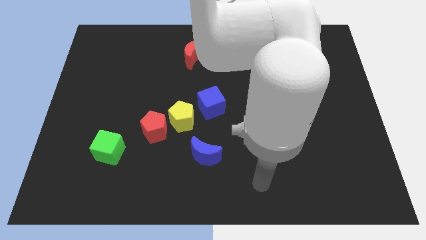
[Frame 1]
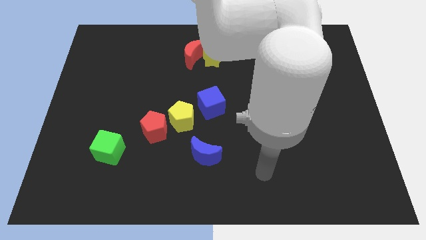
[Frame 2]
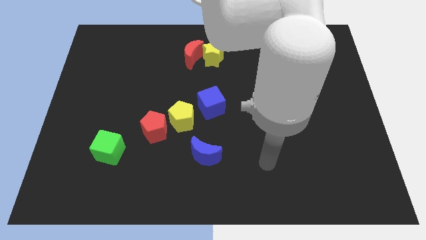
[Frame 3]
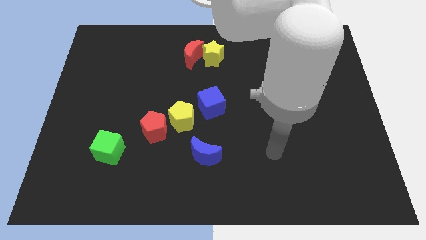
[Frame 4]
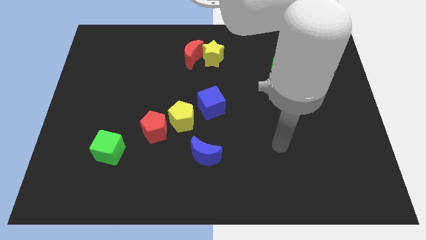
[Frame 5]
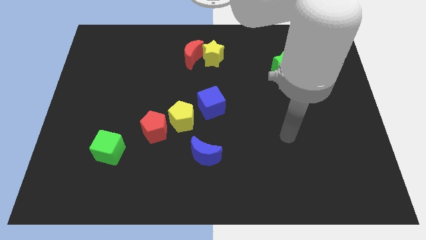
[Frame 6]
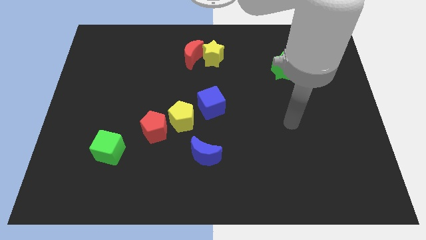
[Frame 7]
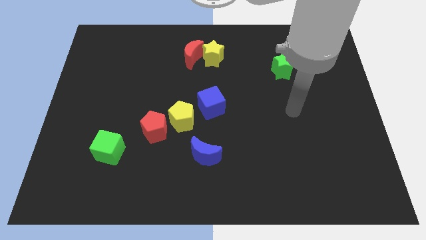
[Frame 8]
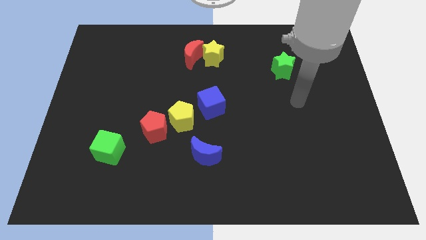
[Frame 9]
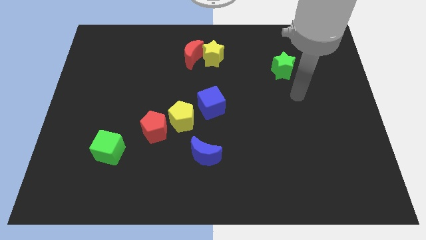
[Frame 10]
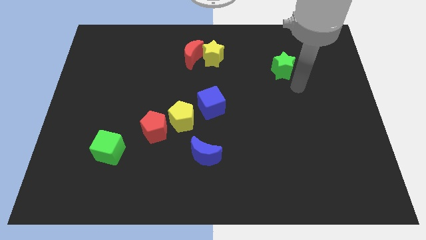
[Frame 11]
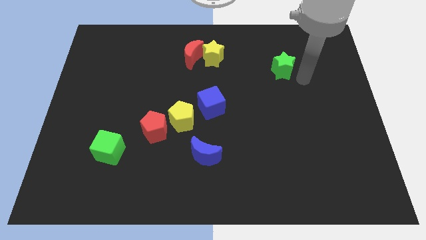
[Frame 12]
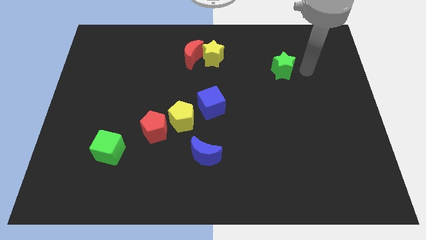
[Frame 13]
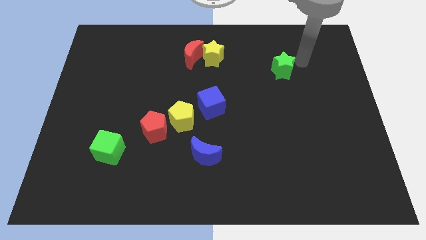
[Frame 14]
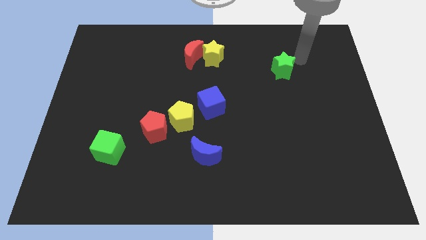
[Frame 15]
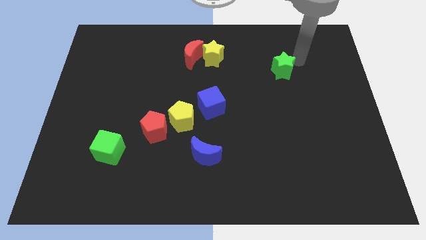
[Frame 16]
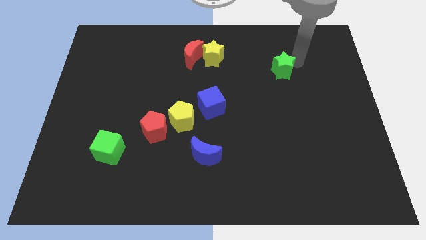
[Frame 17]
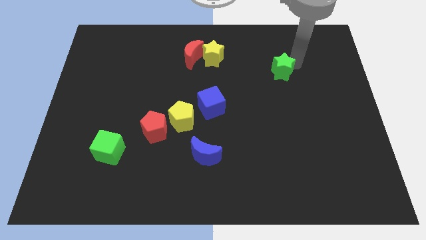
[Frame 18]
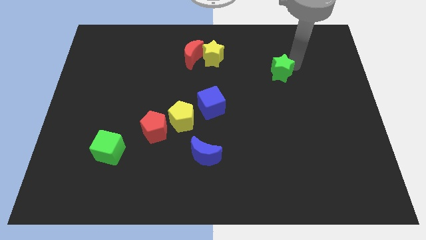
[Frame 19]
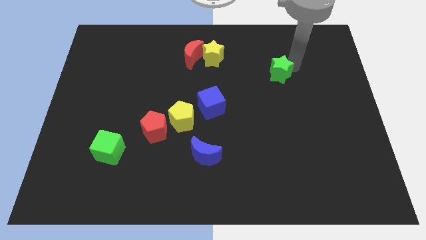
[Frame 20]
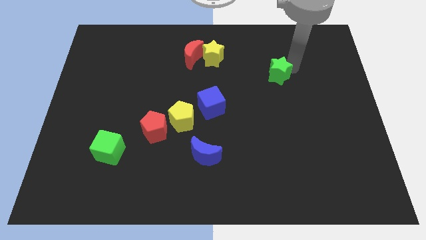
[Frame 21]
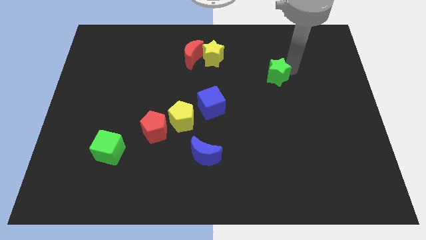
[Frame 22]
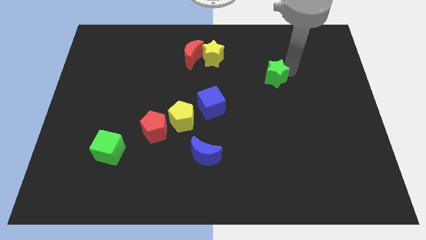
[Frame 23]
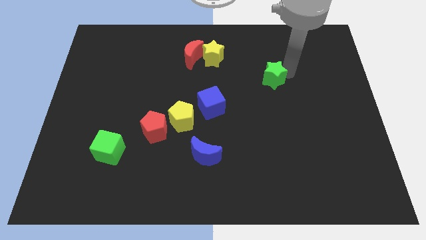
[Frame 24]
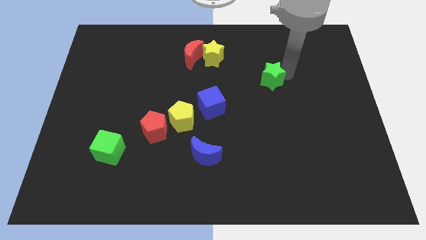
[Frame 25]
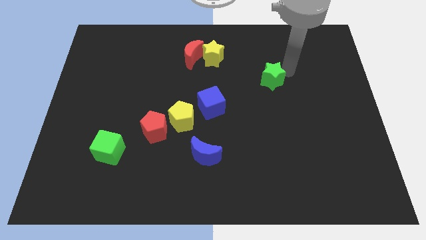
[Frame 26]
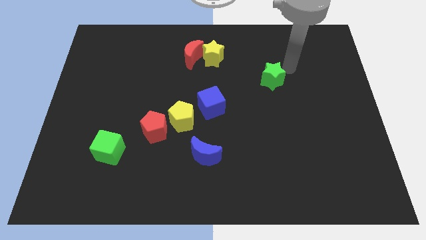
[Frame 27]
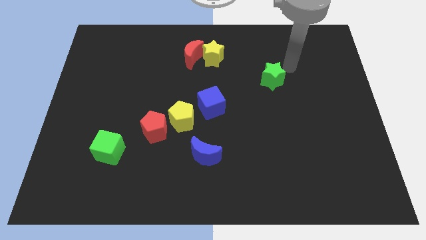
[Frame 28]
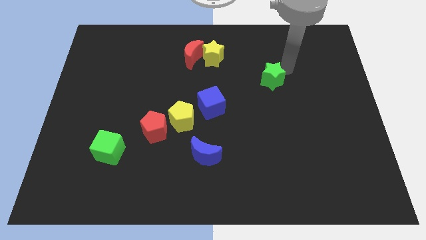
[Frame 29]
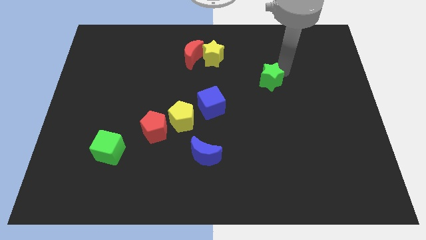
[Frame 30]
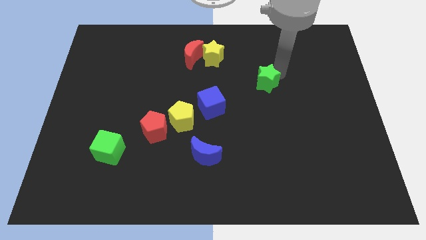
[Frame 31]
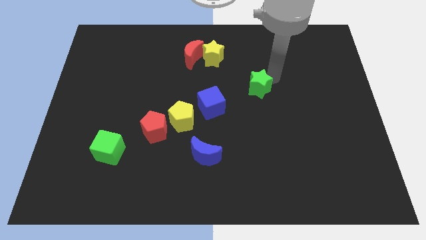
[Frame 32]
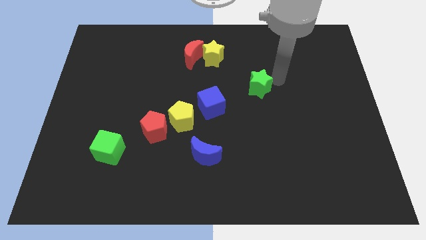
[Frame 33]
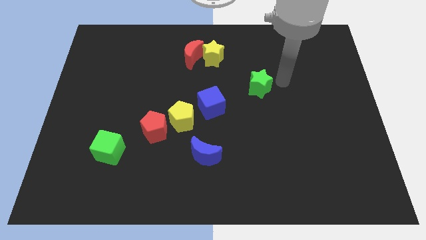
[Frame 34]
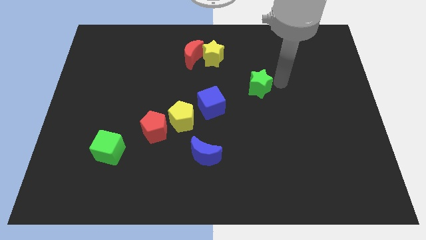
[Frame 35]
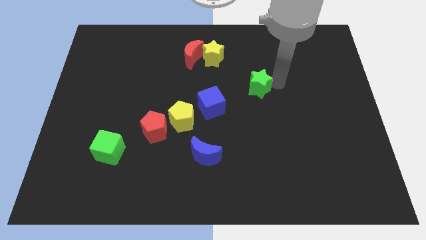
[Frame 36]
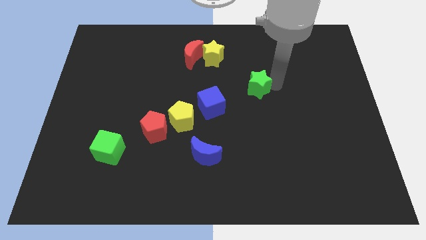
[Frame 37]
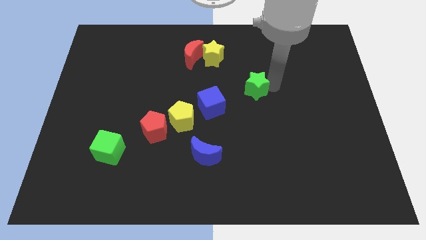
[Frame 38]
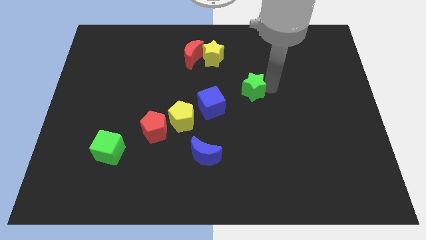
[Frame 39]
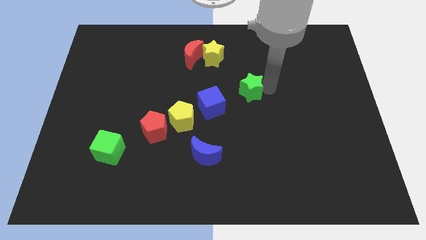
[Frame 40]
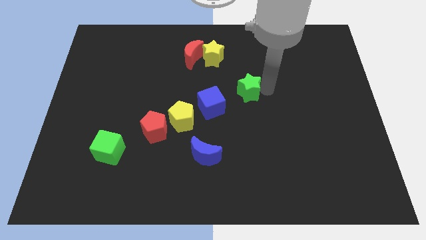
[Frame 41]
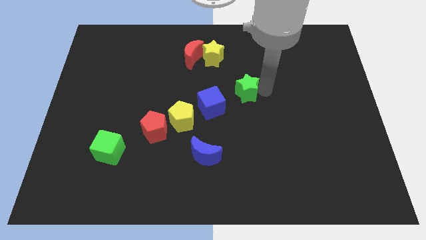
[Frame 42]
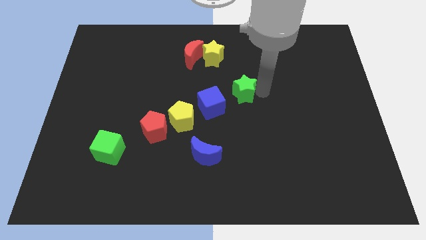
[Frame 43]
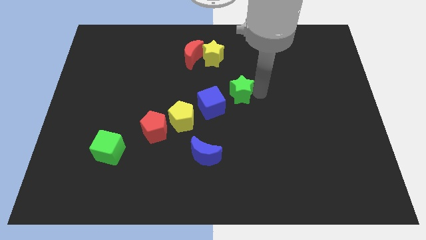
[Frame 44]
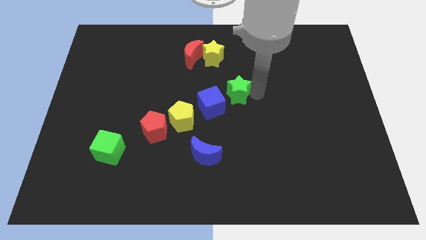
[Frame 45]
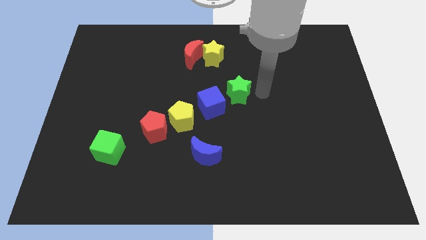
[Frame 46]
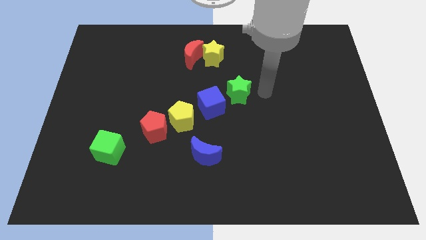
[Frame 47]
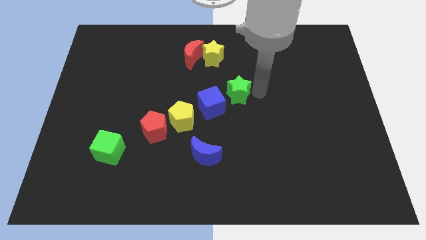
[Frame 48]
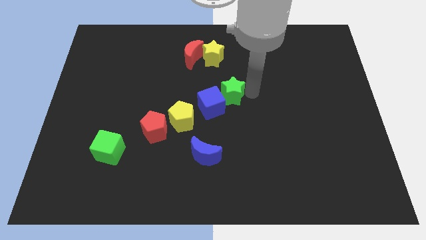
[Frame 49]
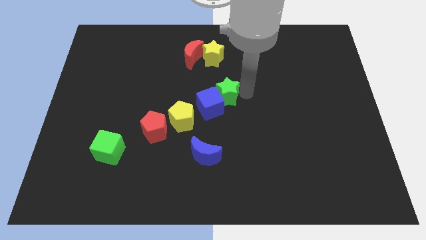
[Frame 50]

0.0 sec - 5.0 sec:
push the green star diagonally up and to the right of the yellow pentagon

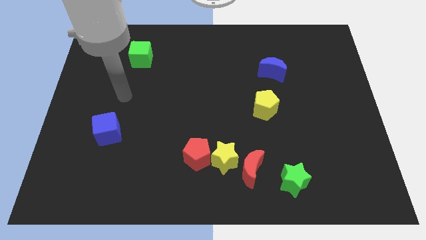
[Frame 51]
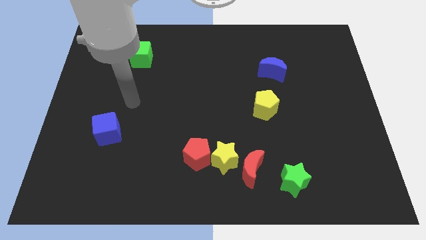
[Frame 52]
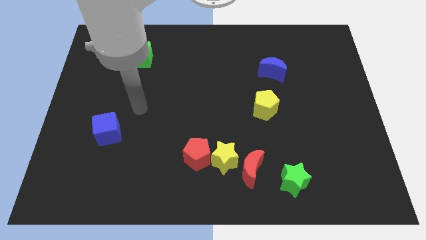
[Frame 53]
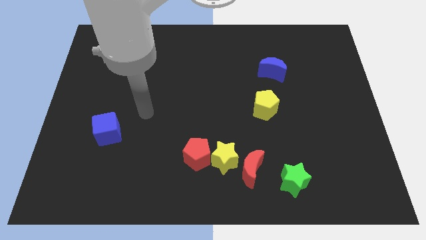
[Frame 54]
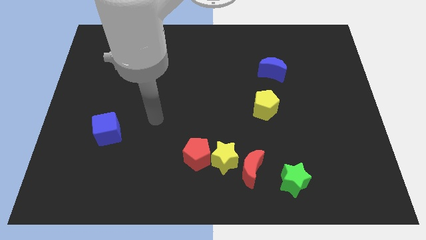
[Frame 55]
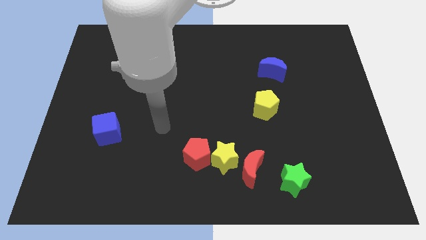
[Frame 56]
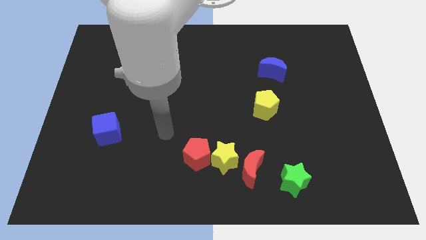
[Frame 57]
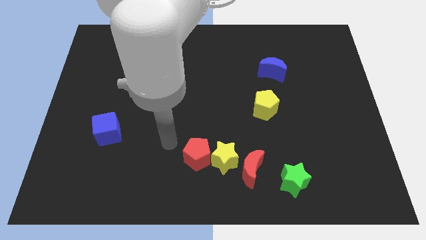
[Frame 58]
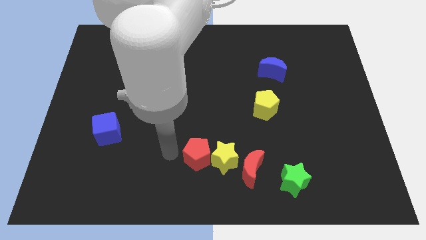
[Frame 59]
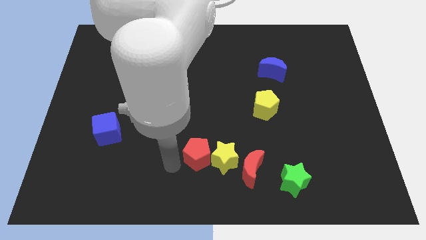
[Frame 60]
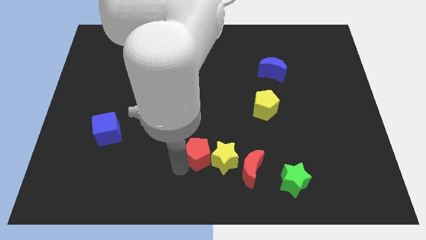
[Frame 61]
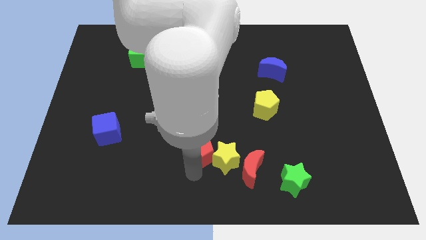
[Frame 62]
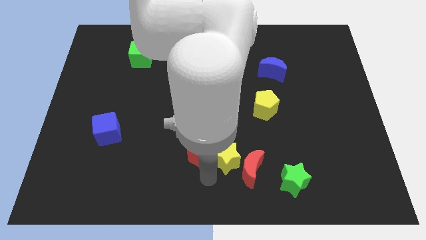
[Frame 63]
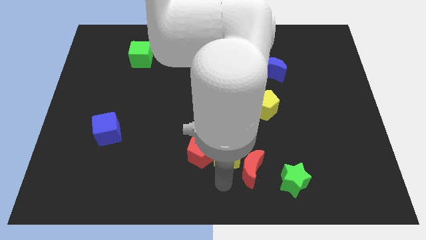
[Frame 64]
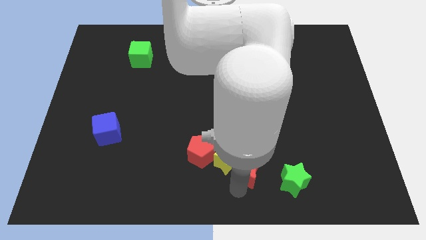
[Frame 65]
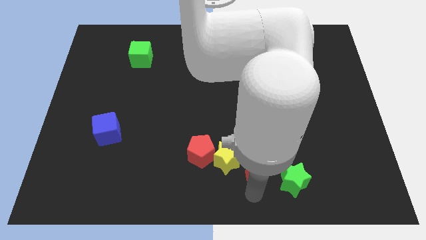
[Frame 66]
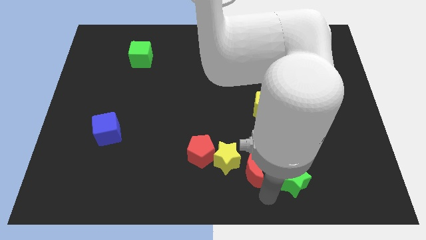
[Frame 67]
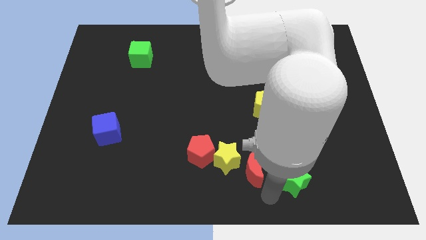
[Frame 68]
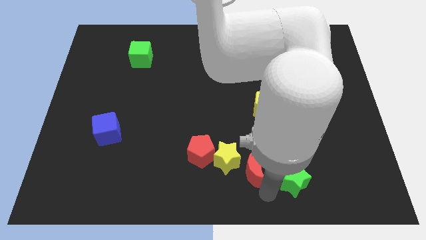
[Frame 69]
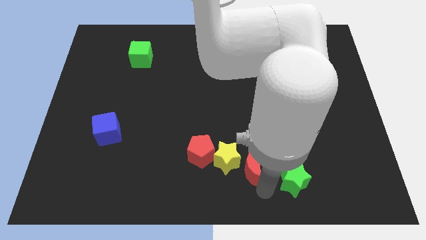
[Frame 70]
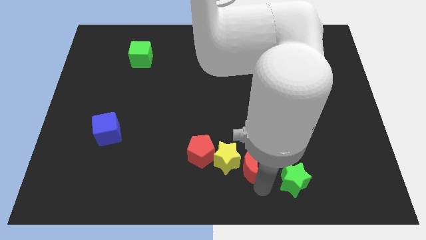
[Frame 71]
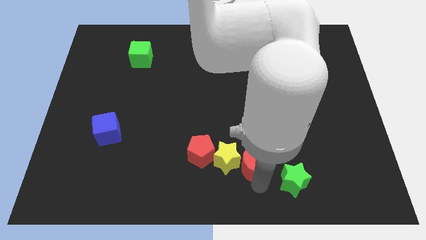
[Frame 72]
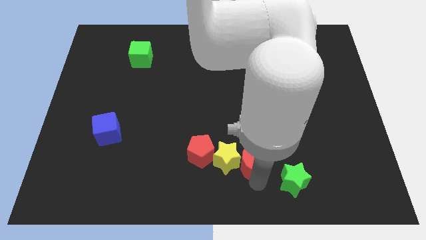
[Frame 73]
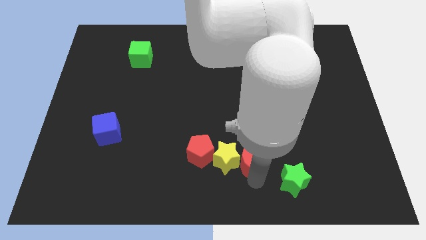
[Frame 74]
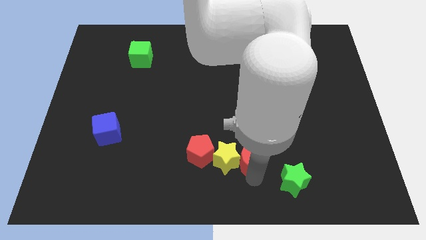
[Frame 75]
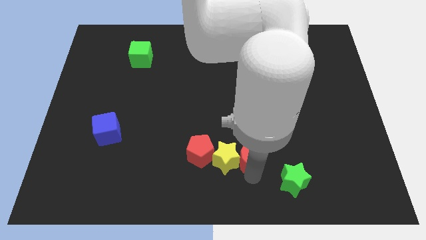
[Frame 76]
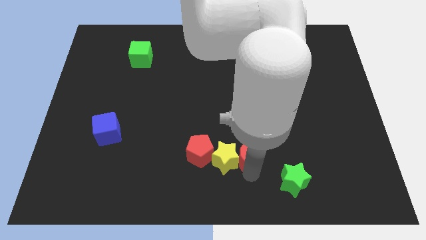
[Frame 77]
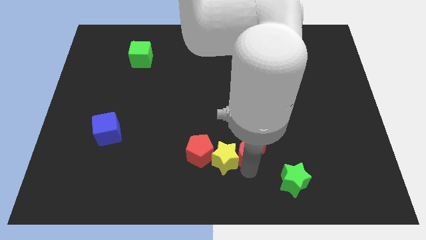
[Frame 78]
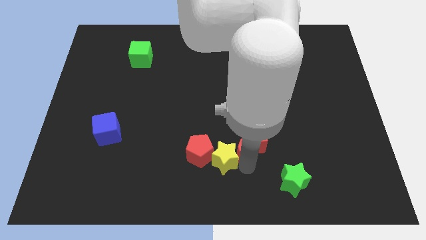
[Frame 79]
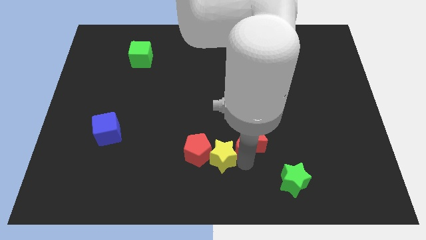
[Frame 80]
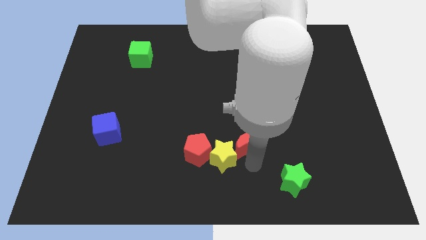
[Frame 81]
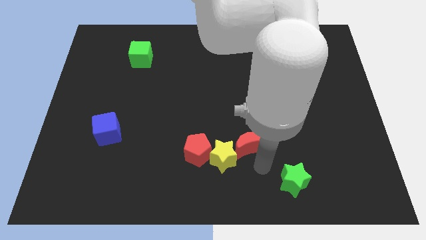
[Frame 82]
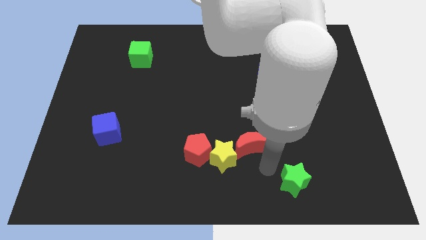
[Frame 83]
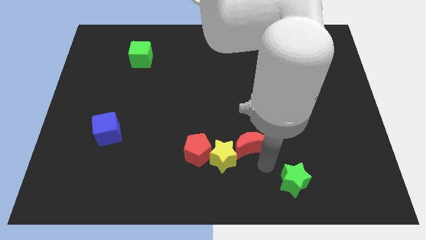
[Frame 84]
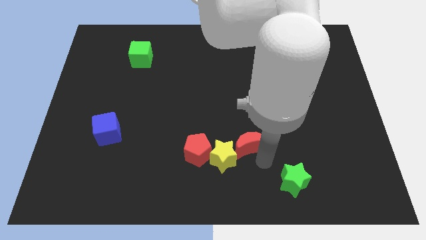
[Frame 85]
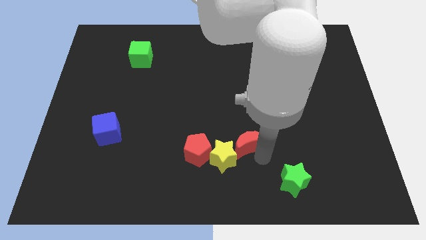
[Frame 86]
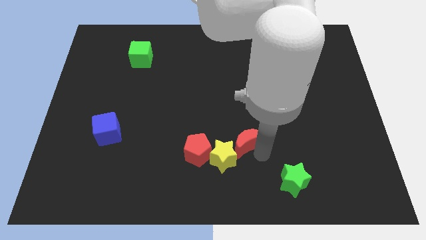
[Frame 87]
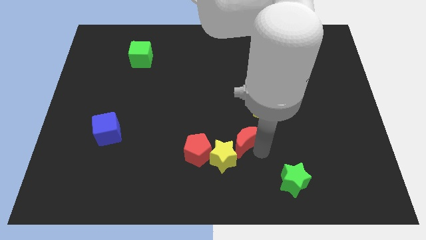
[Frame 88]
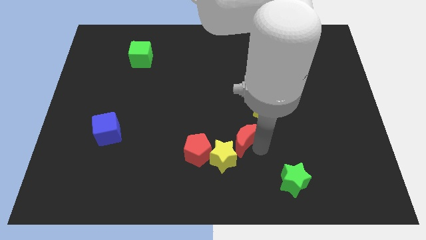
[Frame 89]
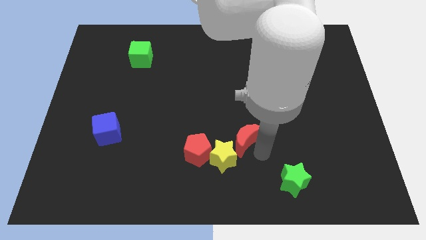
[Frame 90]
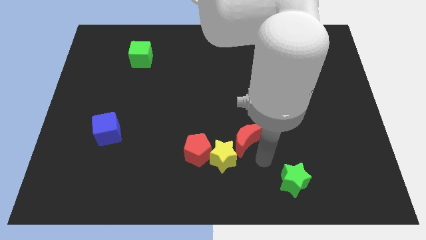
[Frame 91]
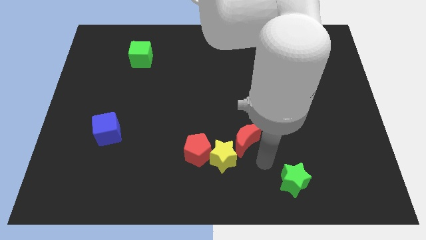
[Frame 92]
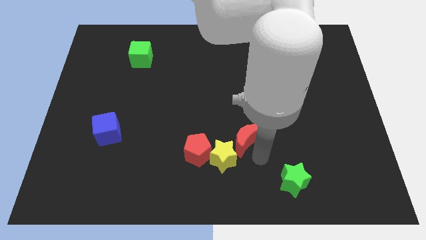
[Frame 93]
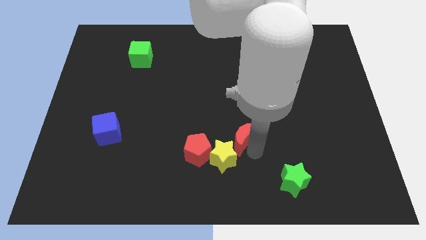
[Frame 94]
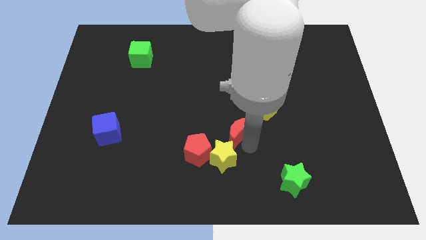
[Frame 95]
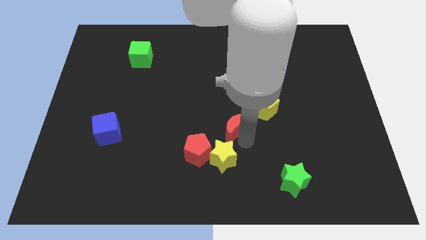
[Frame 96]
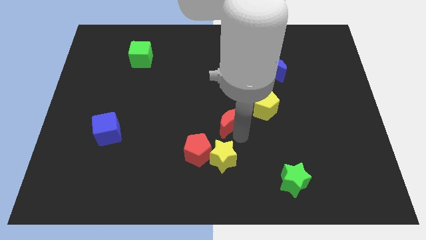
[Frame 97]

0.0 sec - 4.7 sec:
slide the red moon just left of the yellow pentagon
